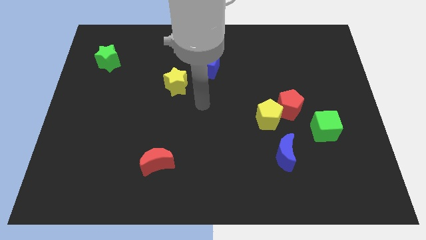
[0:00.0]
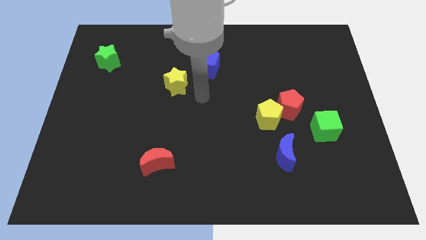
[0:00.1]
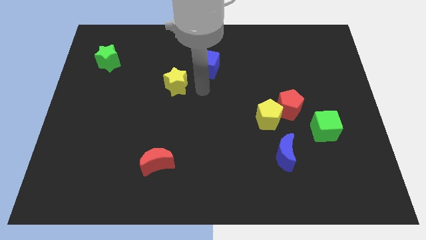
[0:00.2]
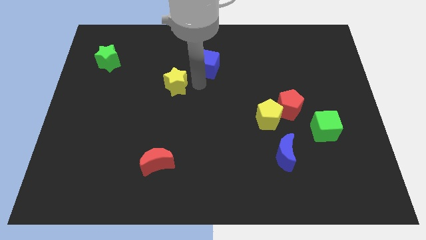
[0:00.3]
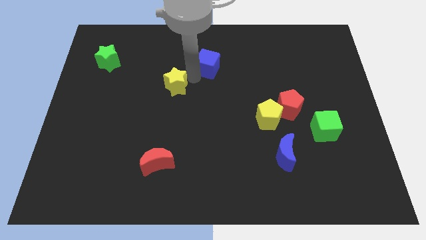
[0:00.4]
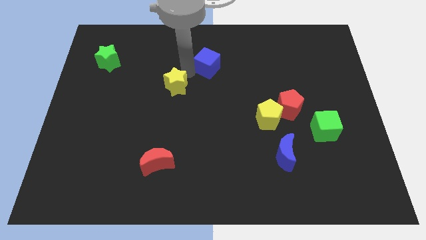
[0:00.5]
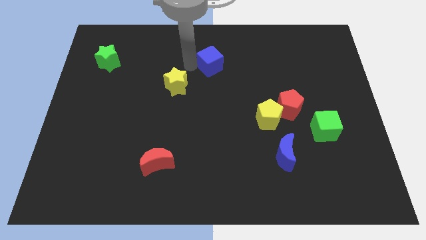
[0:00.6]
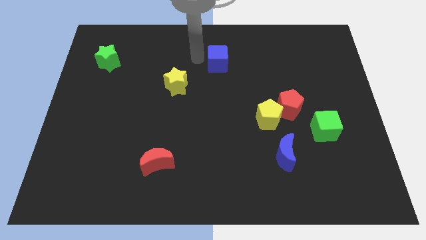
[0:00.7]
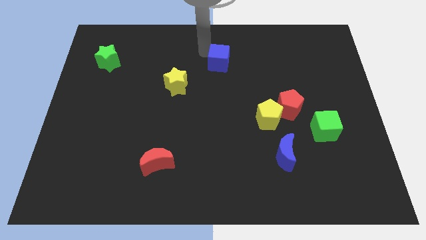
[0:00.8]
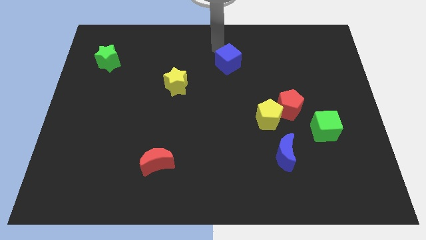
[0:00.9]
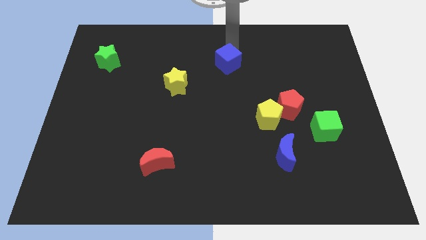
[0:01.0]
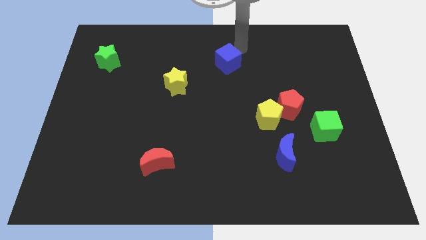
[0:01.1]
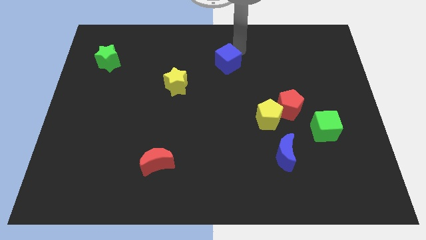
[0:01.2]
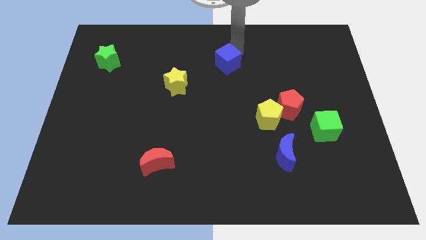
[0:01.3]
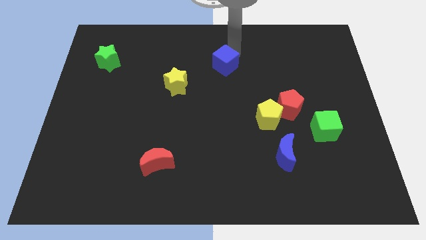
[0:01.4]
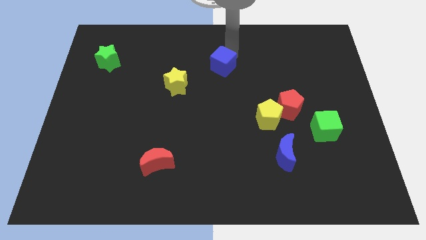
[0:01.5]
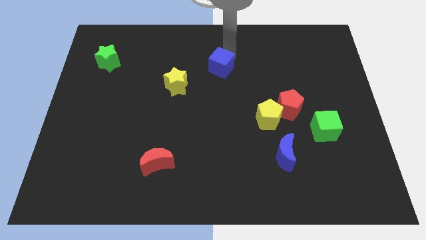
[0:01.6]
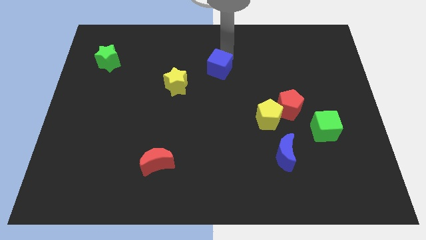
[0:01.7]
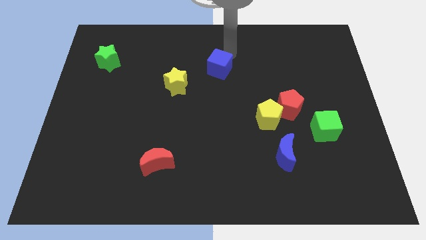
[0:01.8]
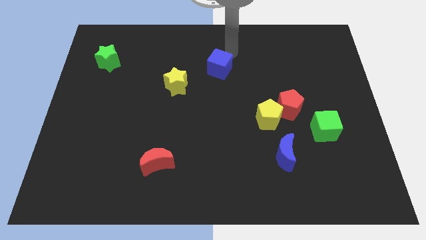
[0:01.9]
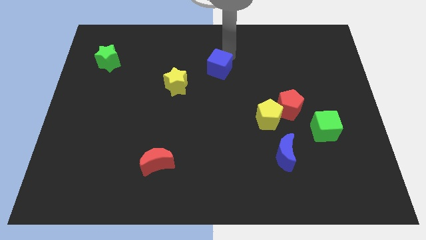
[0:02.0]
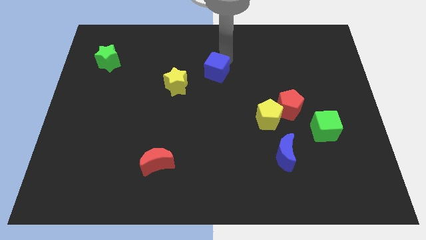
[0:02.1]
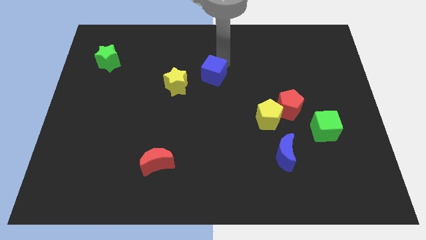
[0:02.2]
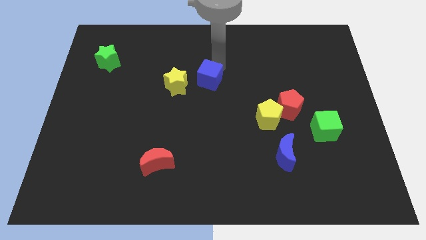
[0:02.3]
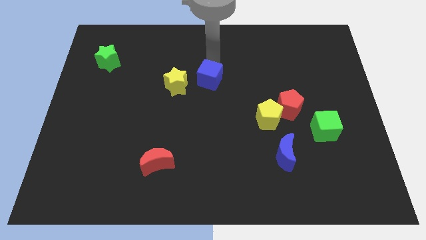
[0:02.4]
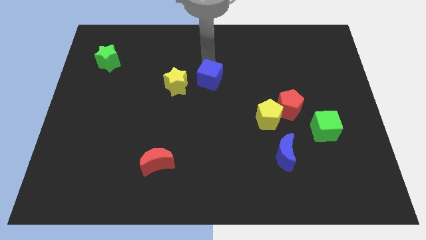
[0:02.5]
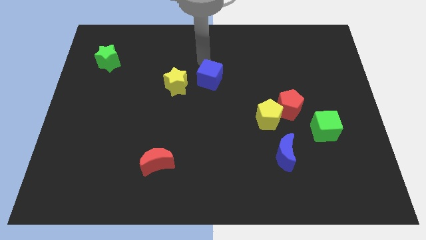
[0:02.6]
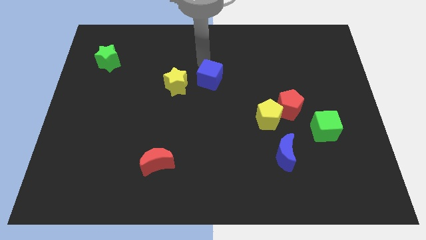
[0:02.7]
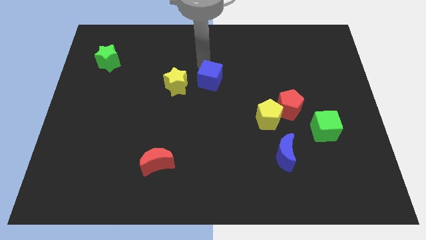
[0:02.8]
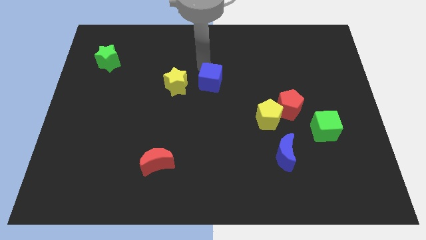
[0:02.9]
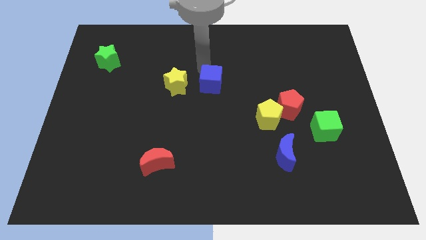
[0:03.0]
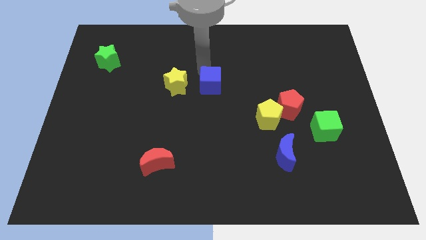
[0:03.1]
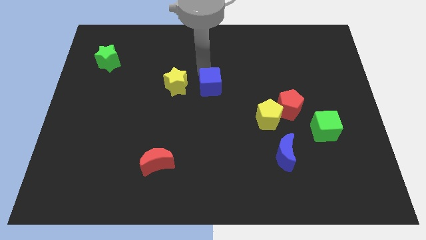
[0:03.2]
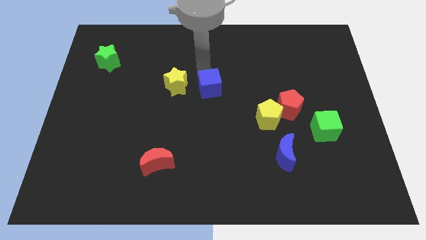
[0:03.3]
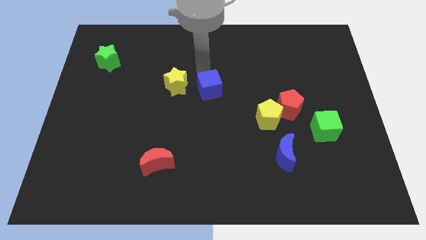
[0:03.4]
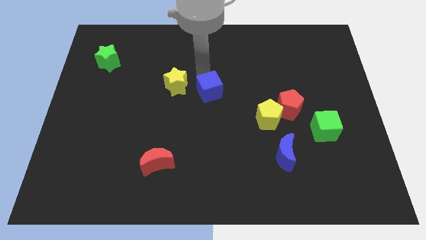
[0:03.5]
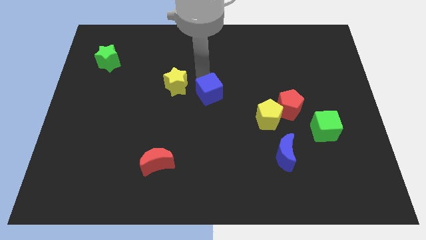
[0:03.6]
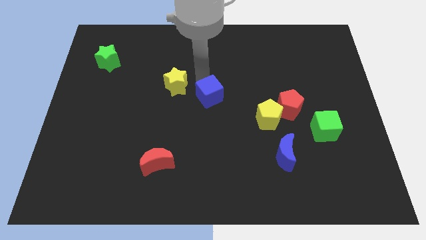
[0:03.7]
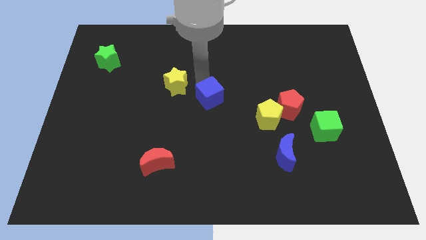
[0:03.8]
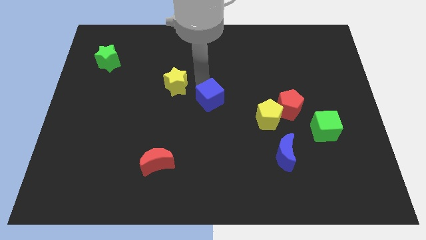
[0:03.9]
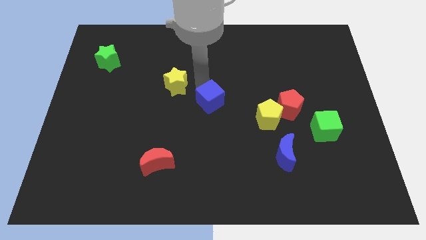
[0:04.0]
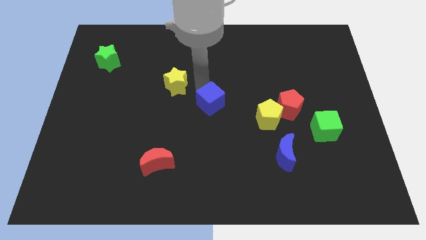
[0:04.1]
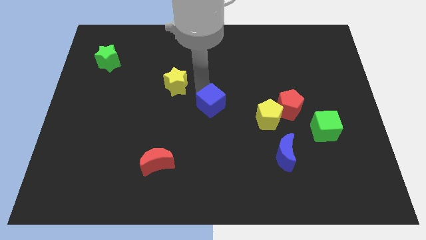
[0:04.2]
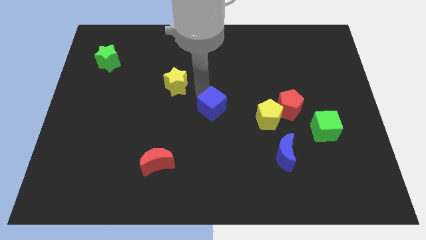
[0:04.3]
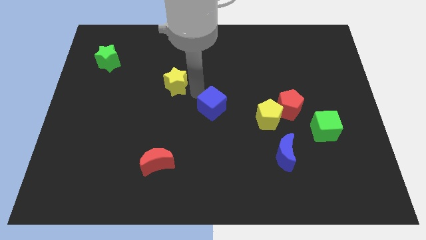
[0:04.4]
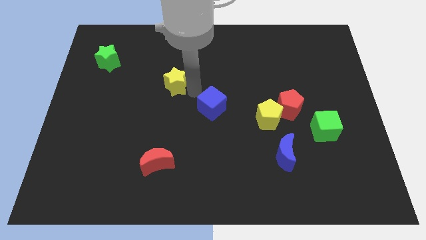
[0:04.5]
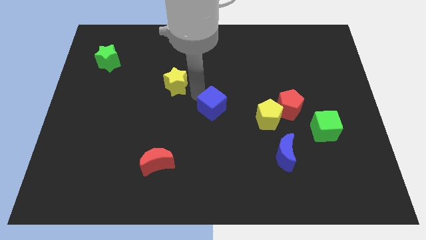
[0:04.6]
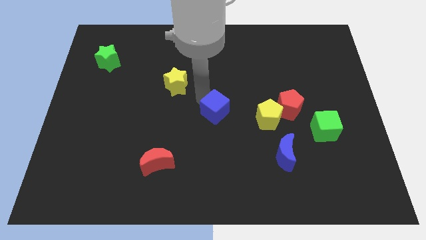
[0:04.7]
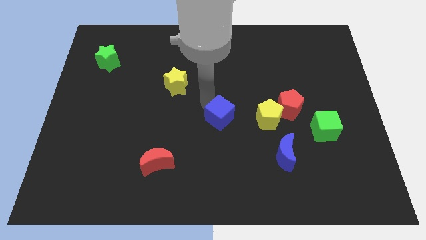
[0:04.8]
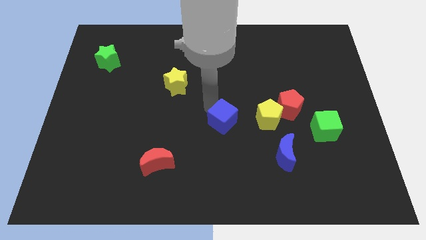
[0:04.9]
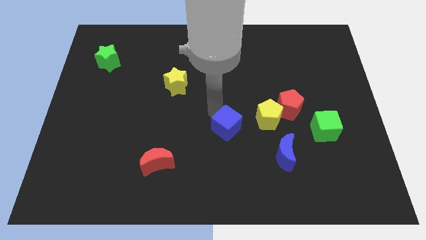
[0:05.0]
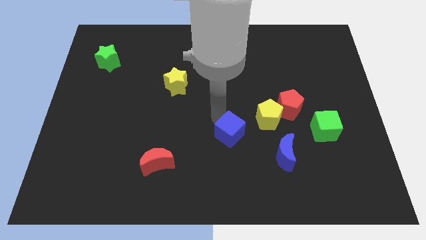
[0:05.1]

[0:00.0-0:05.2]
slide the blue cube to the bottom left of the yellow pentagon
